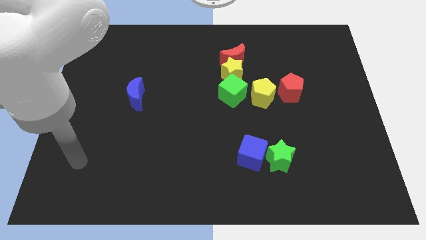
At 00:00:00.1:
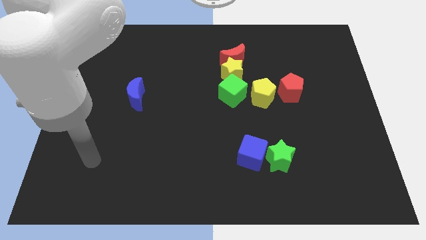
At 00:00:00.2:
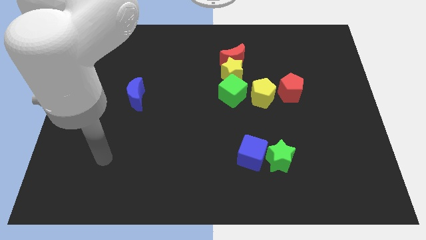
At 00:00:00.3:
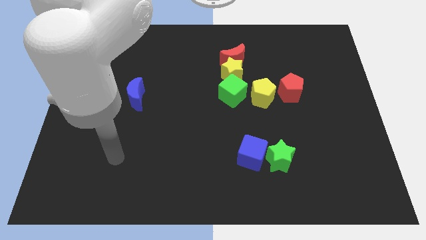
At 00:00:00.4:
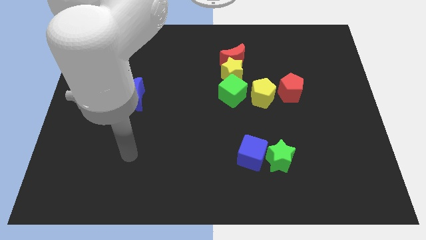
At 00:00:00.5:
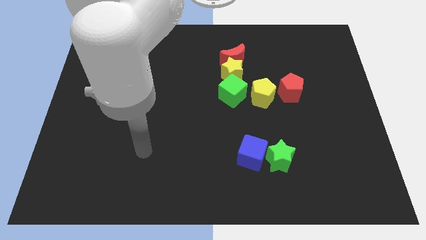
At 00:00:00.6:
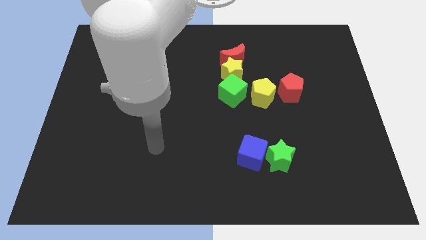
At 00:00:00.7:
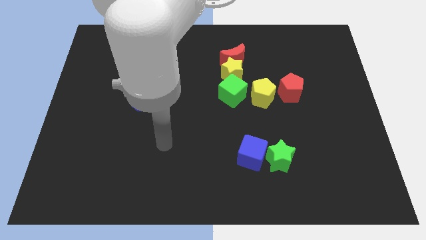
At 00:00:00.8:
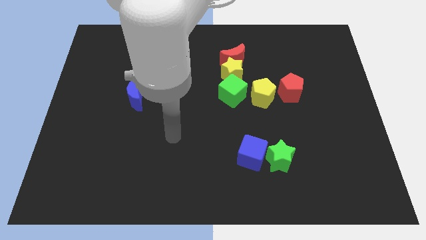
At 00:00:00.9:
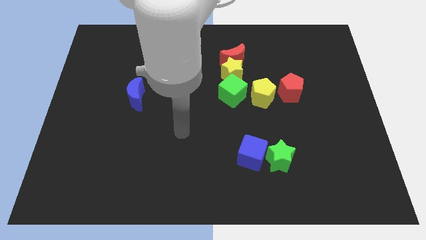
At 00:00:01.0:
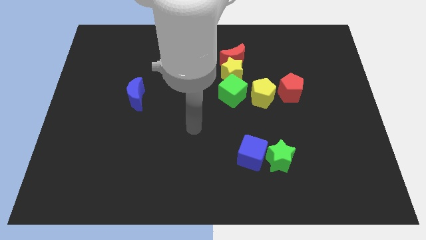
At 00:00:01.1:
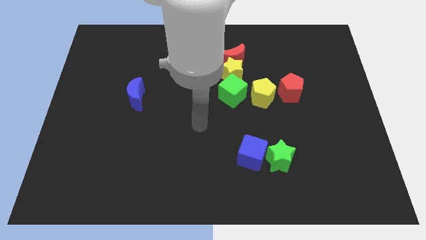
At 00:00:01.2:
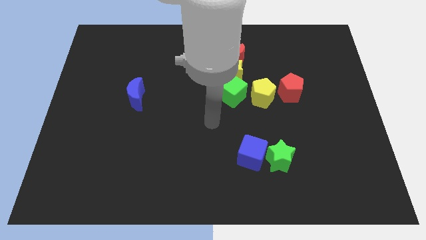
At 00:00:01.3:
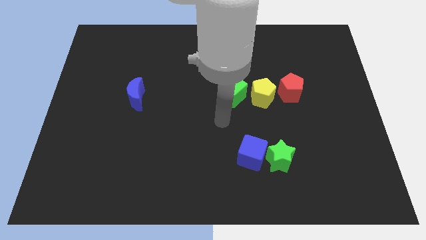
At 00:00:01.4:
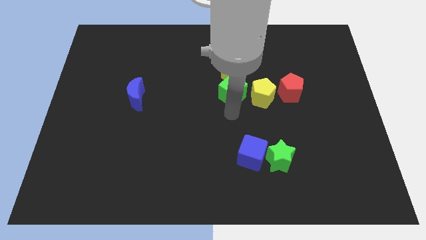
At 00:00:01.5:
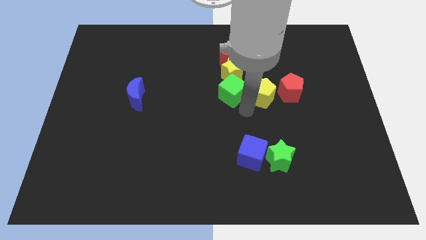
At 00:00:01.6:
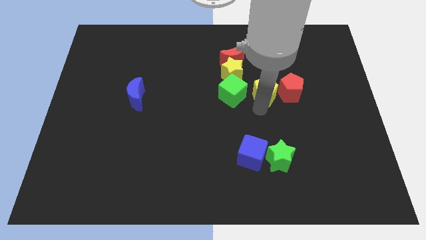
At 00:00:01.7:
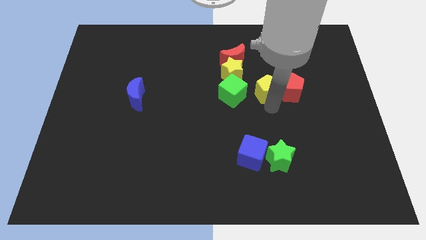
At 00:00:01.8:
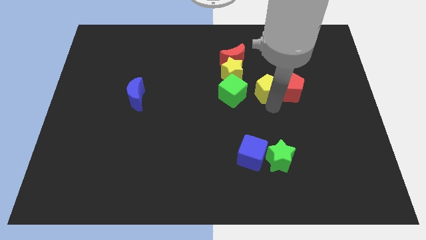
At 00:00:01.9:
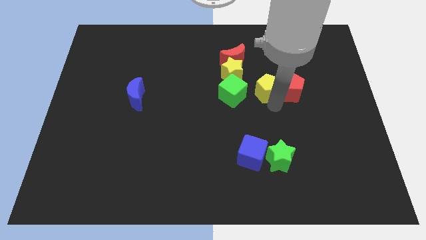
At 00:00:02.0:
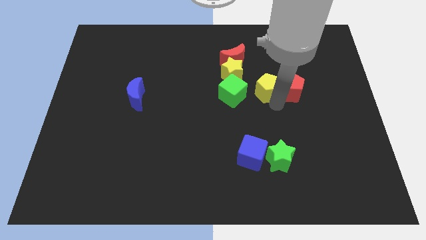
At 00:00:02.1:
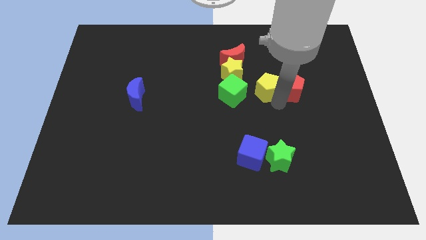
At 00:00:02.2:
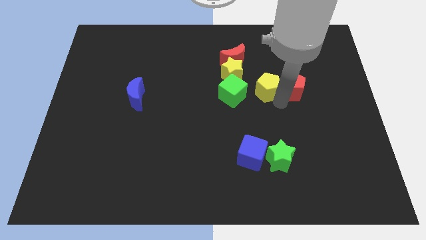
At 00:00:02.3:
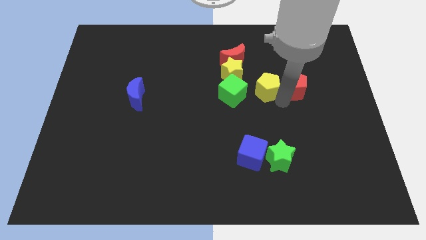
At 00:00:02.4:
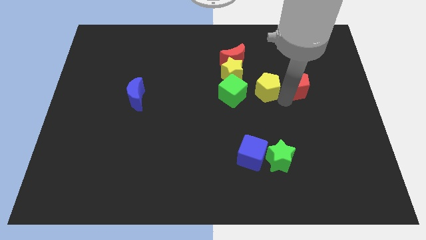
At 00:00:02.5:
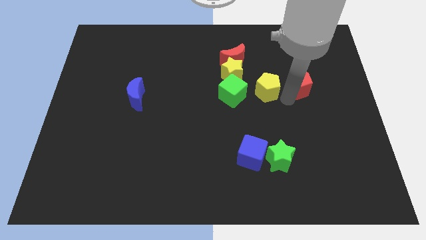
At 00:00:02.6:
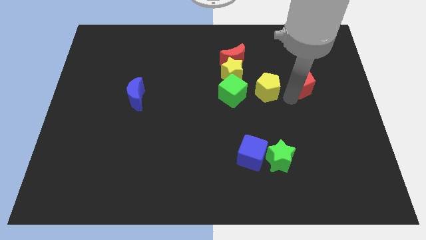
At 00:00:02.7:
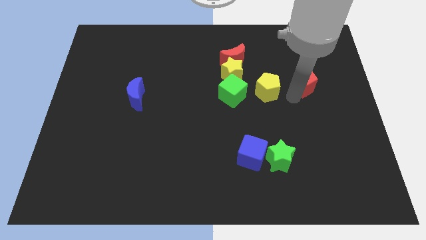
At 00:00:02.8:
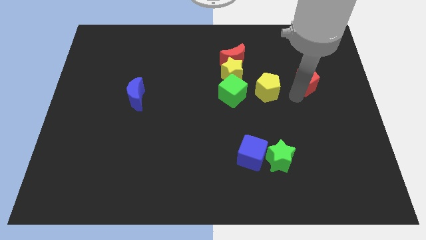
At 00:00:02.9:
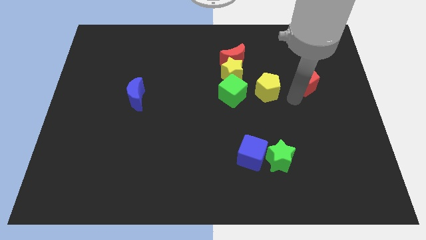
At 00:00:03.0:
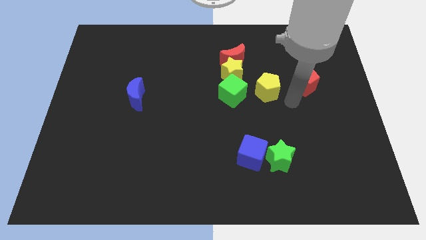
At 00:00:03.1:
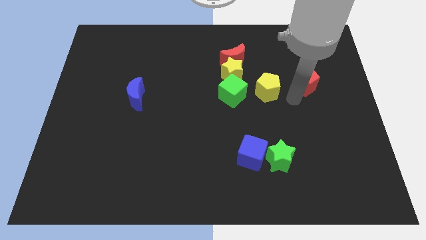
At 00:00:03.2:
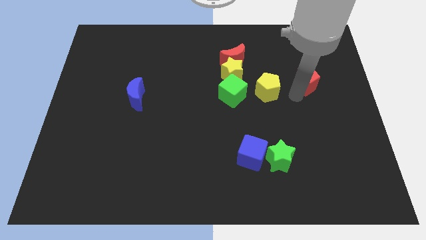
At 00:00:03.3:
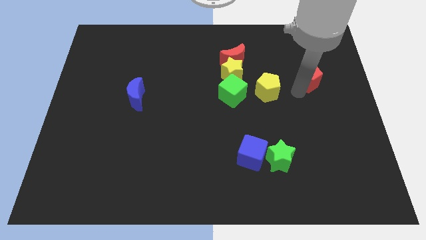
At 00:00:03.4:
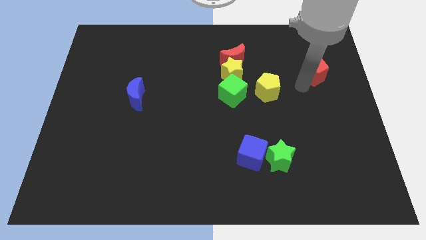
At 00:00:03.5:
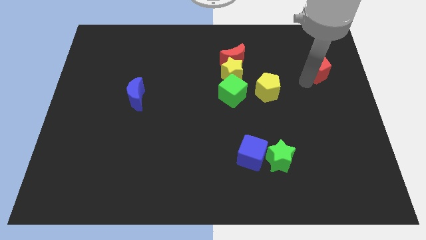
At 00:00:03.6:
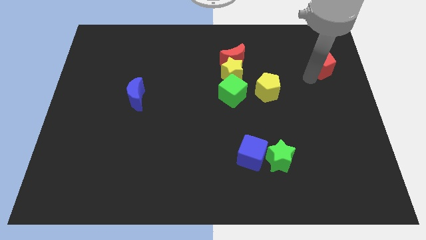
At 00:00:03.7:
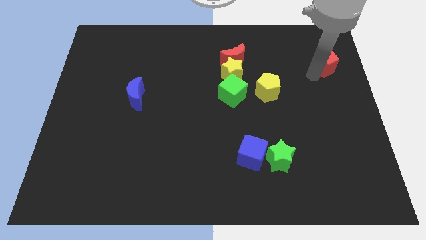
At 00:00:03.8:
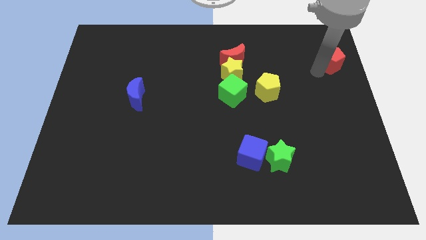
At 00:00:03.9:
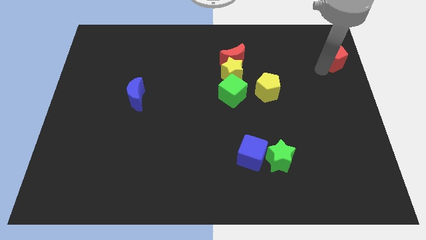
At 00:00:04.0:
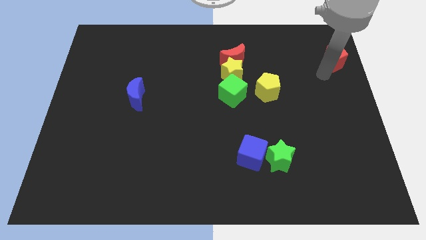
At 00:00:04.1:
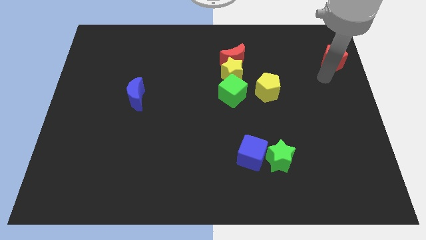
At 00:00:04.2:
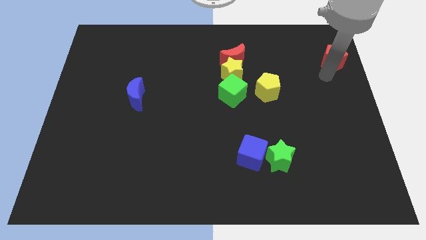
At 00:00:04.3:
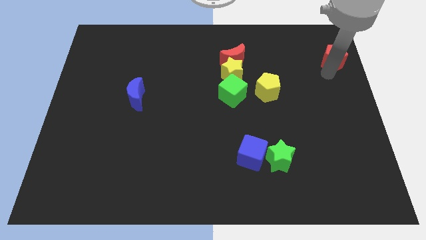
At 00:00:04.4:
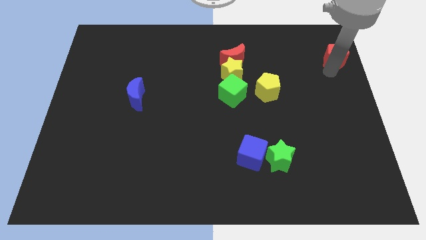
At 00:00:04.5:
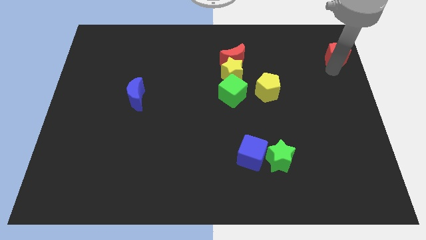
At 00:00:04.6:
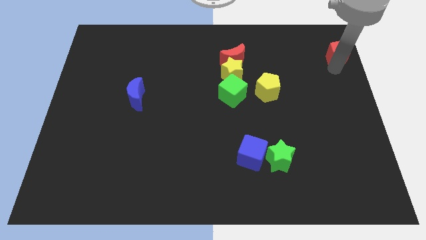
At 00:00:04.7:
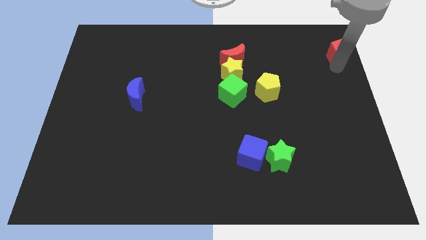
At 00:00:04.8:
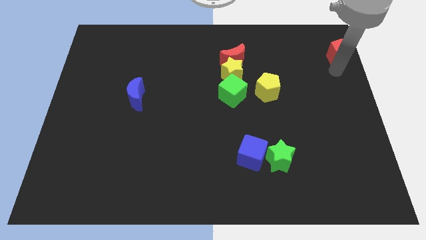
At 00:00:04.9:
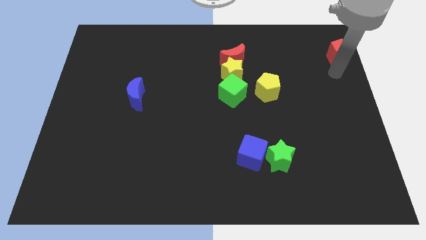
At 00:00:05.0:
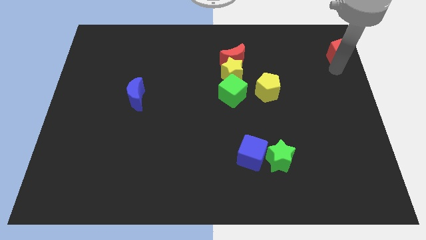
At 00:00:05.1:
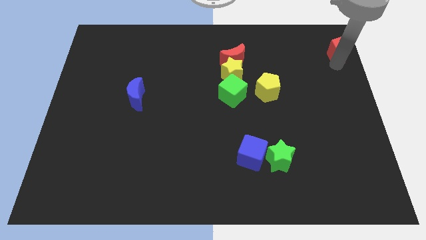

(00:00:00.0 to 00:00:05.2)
push the red pentagon to the top right
